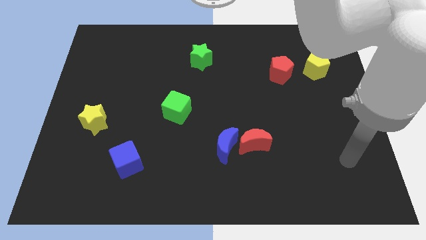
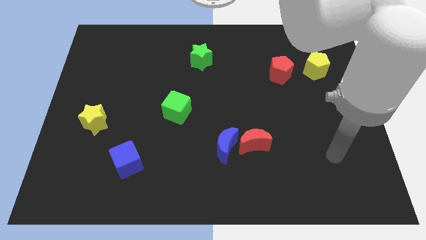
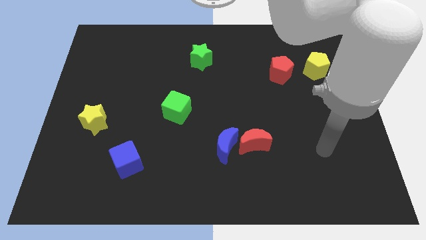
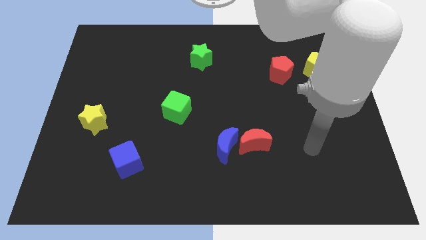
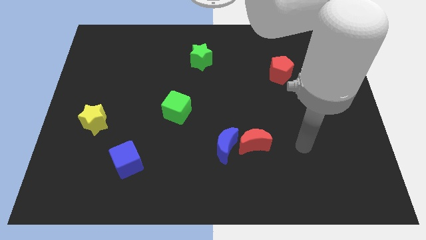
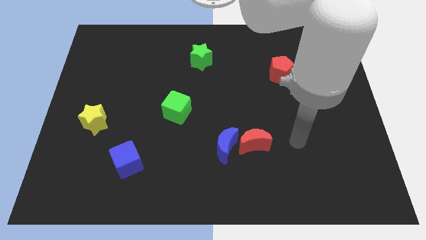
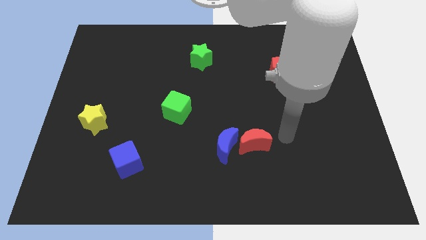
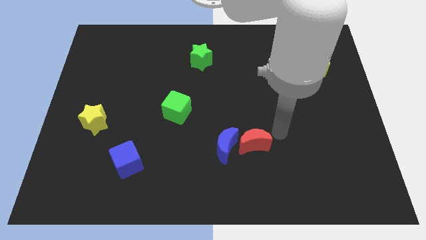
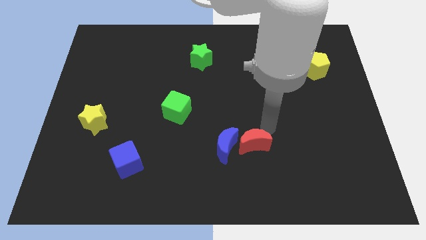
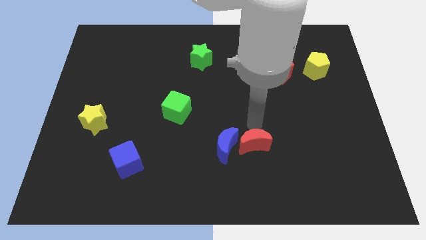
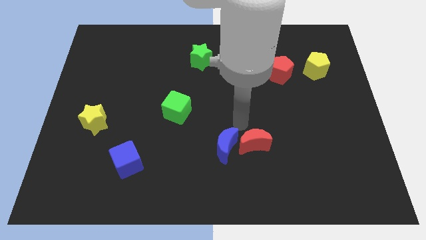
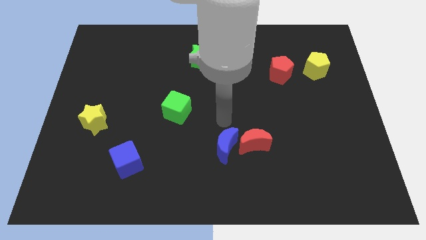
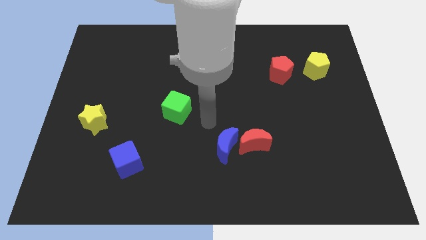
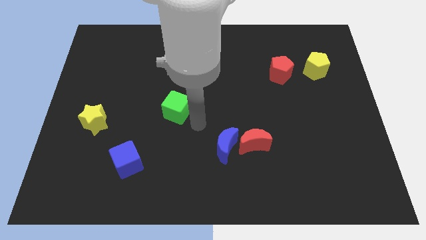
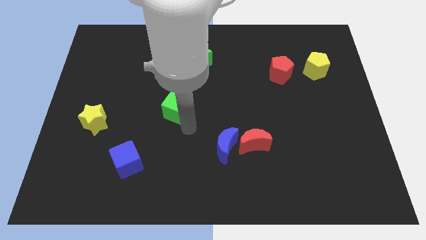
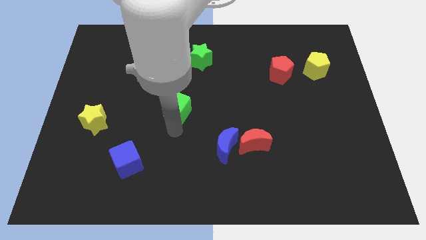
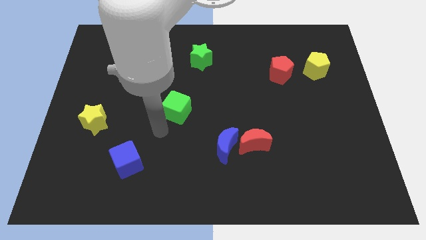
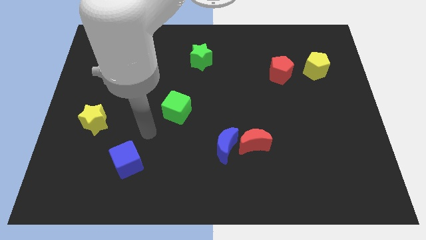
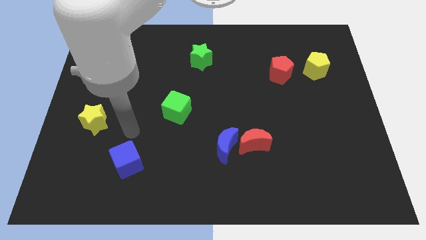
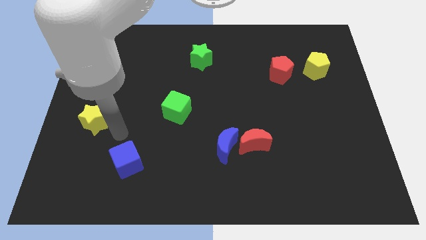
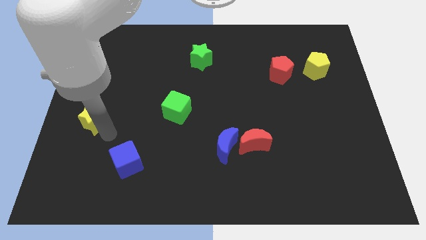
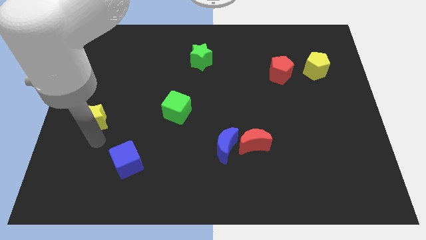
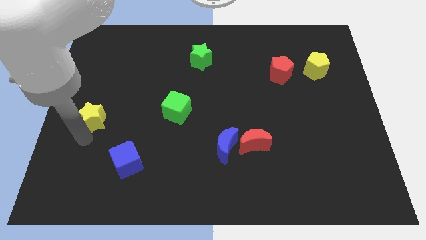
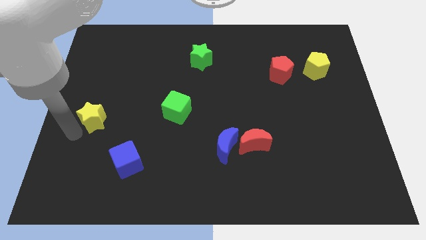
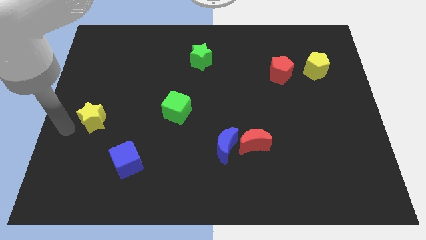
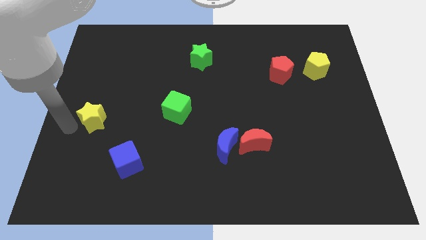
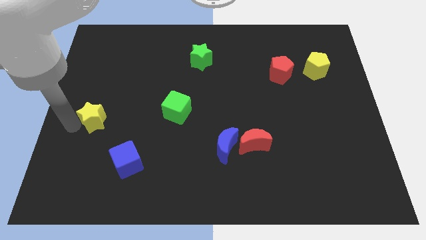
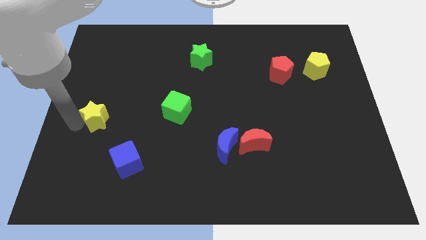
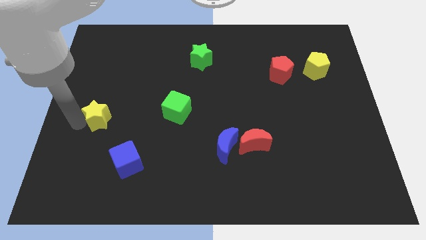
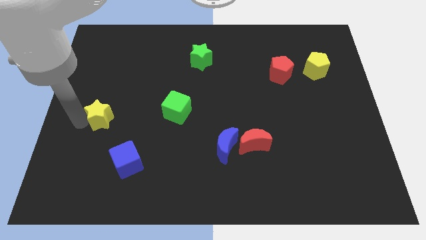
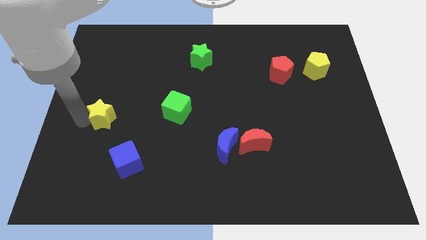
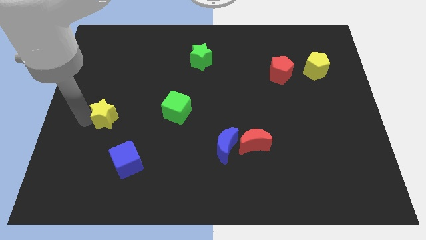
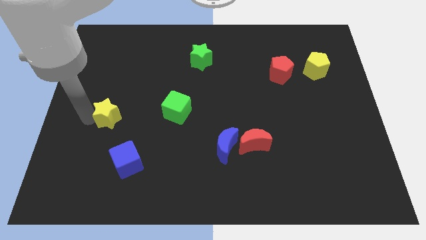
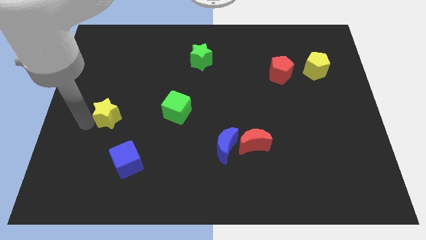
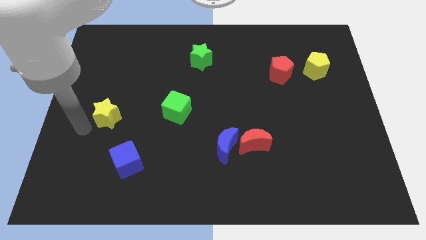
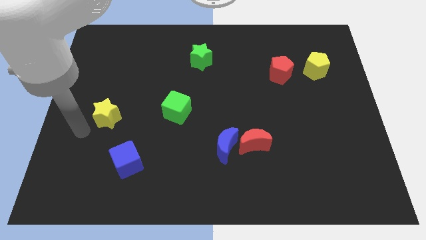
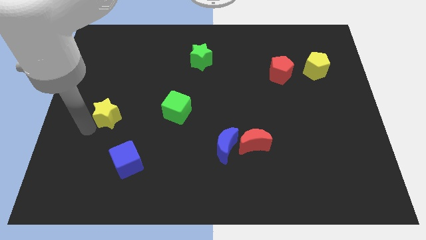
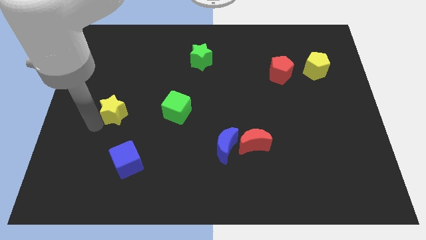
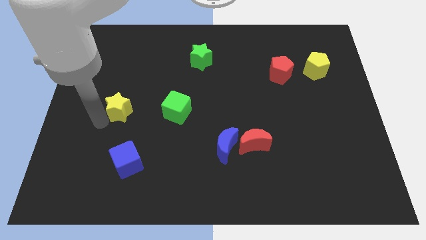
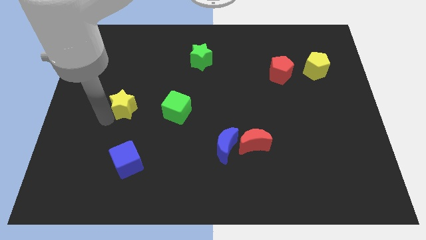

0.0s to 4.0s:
move the yellow star up and to the right a little bit

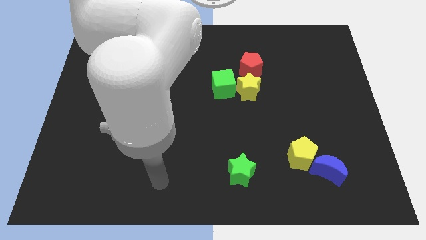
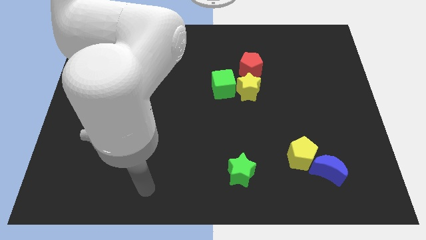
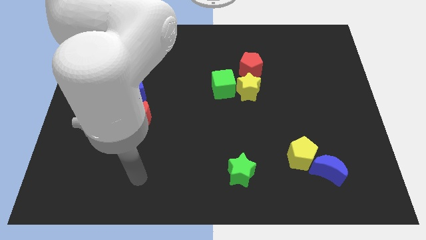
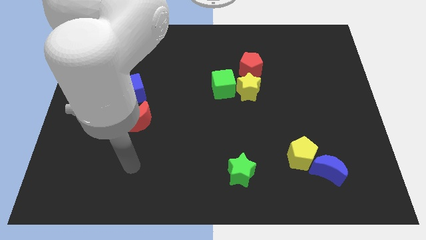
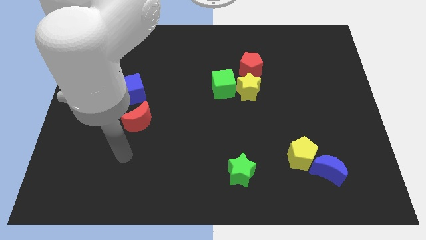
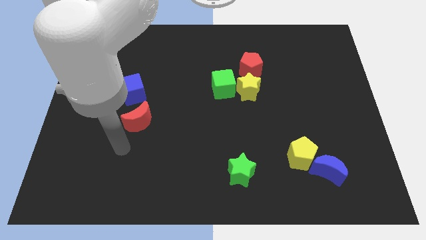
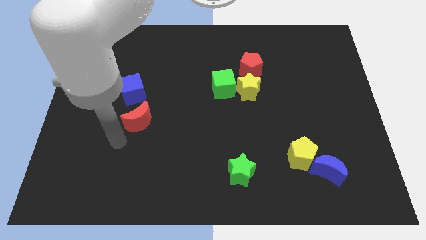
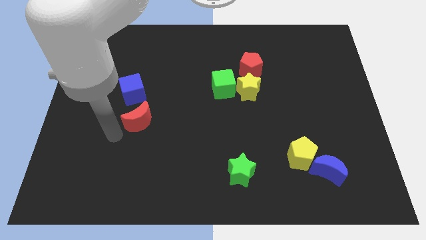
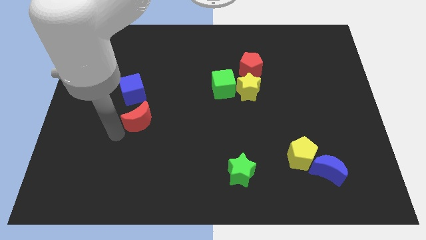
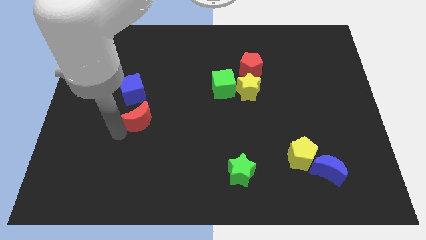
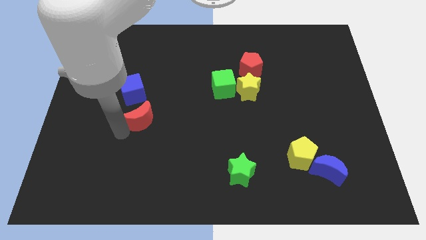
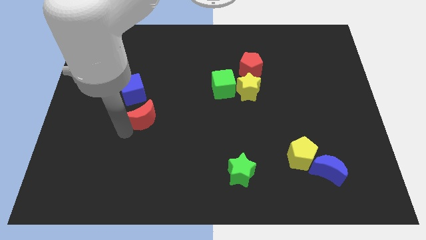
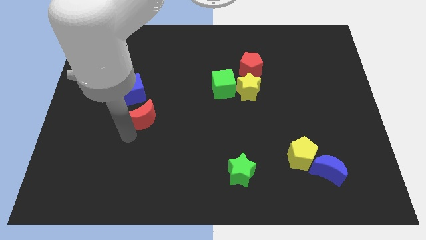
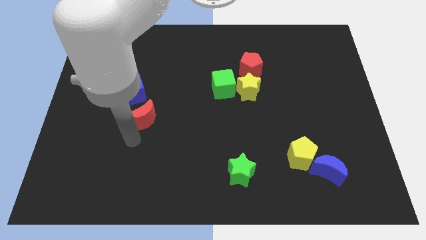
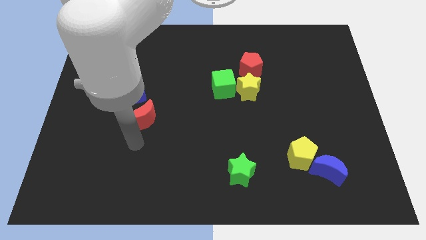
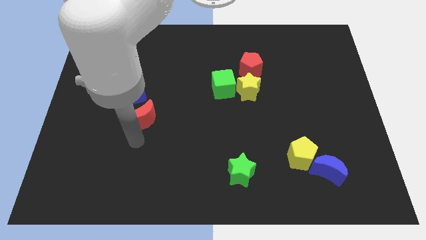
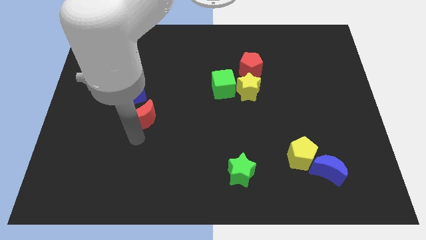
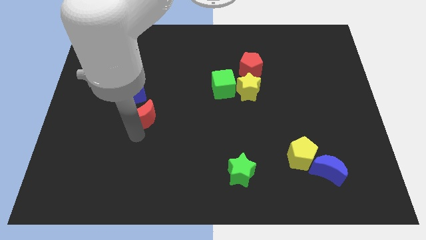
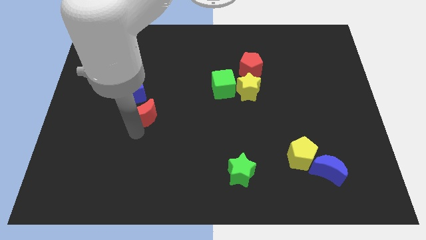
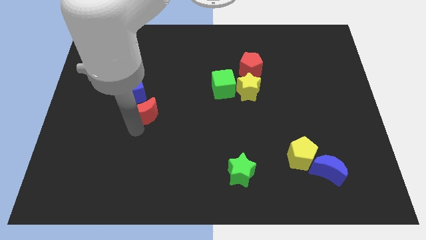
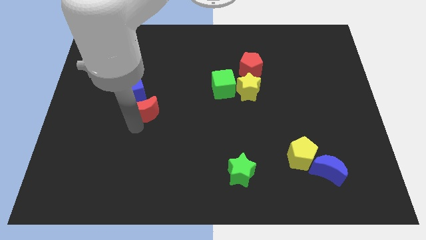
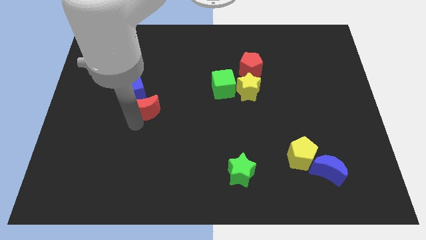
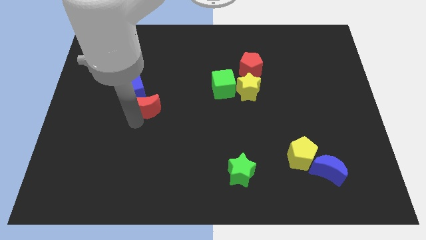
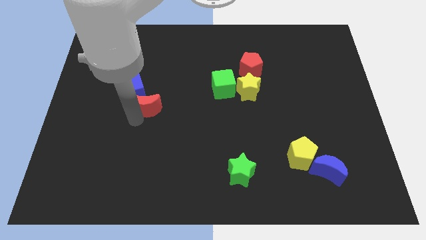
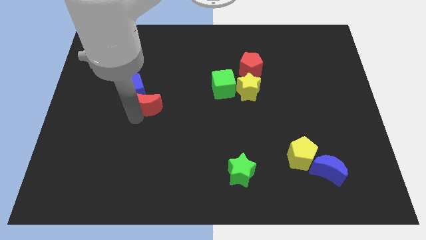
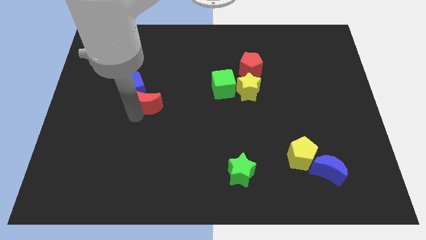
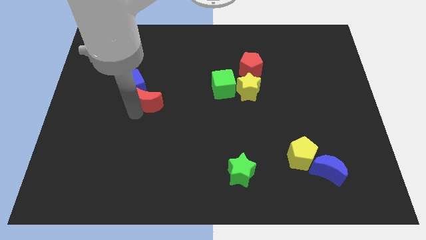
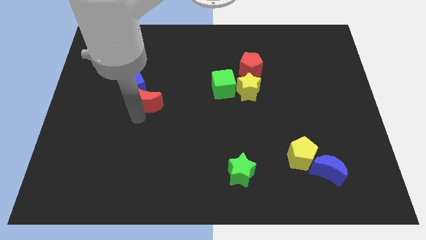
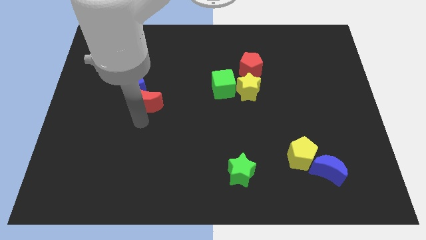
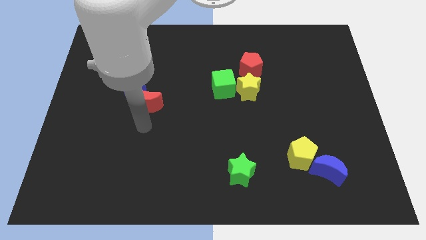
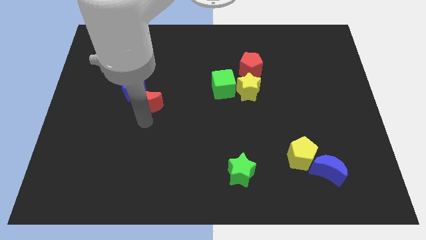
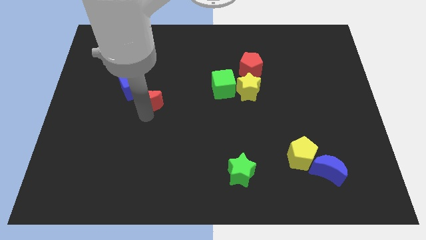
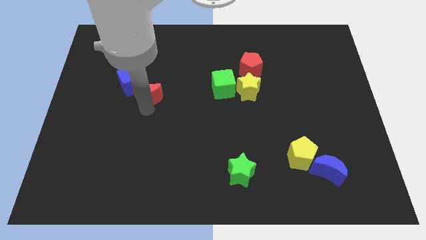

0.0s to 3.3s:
move the red moon up a bit

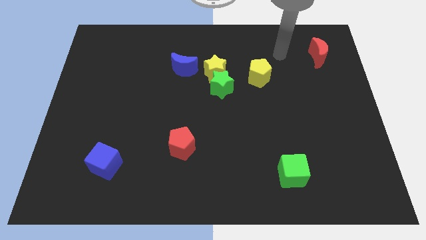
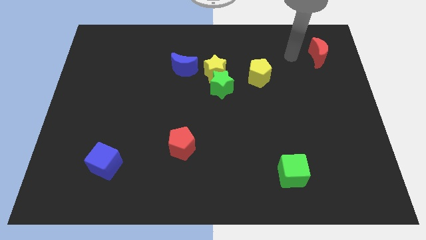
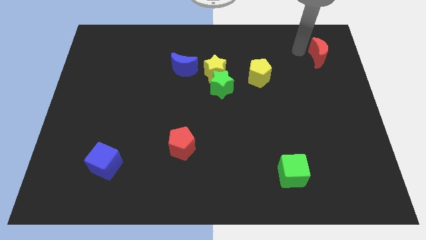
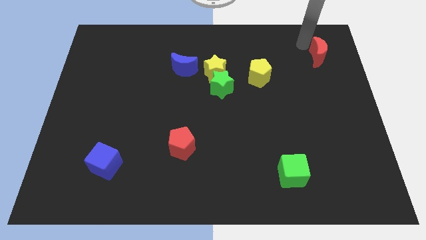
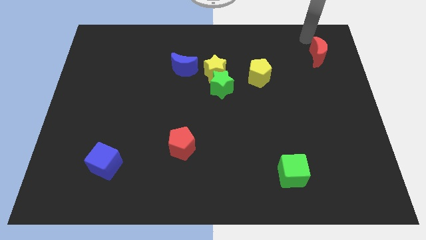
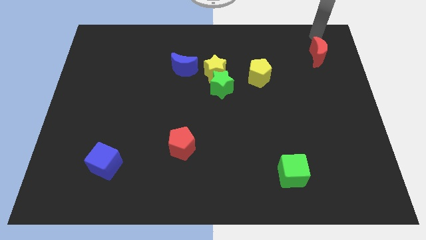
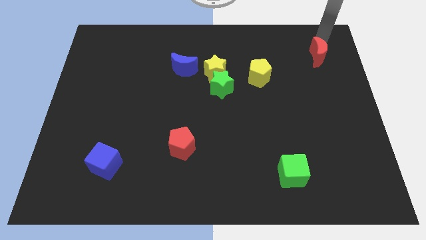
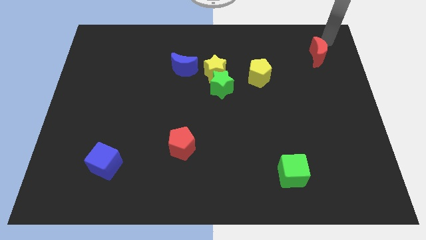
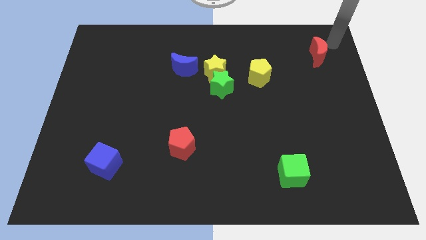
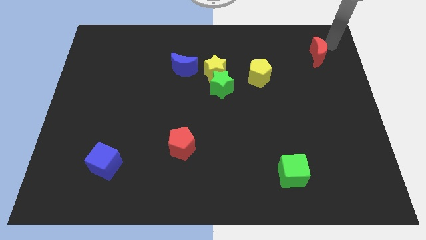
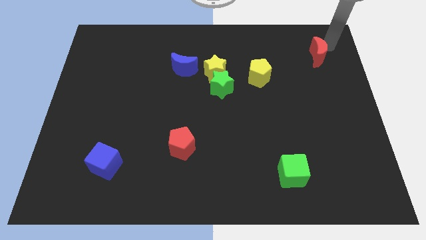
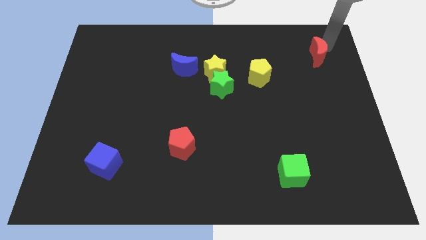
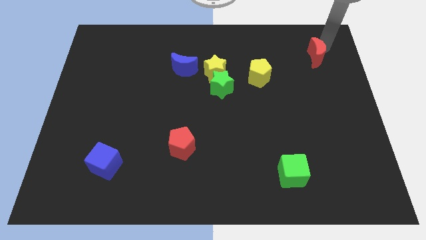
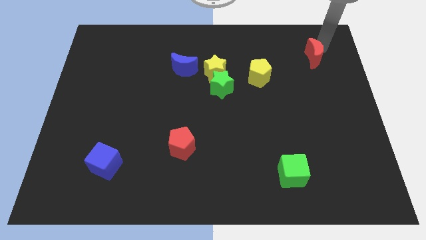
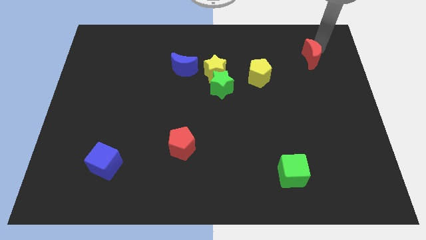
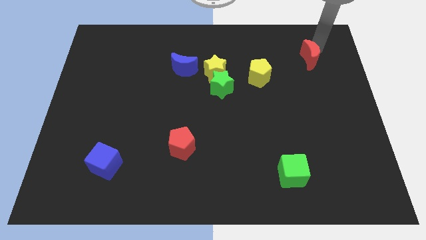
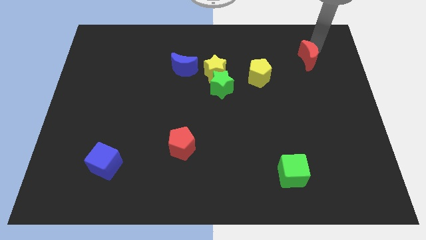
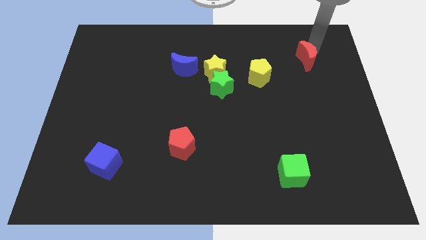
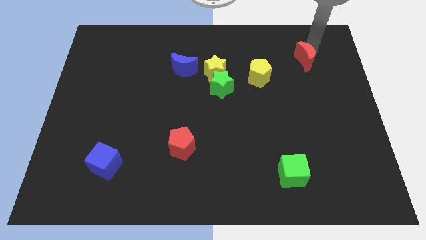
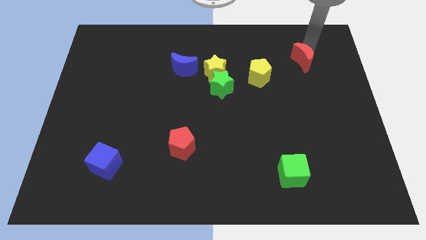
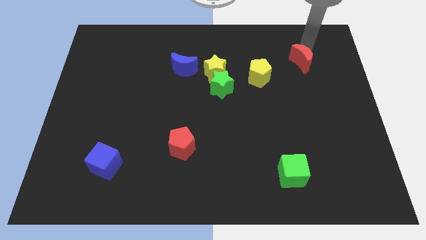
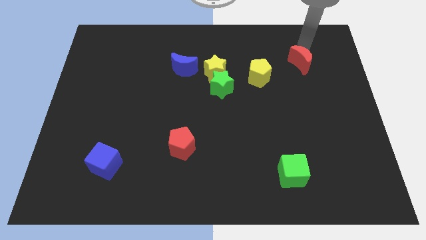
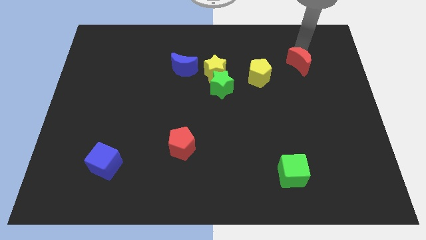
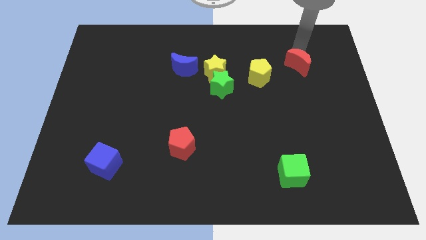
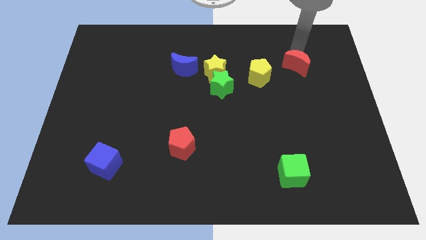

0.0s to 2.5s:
push the red moon down and then left a little bit
